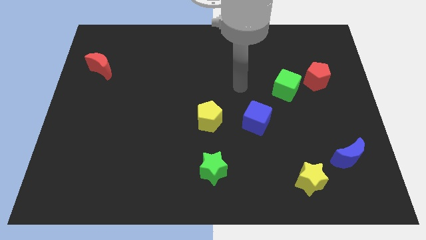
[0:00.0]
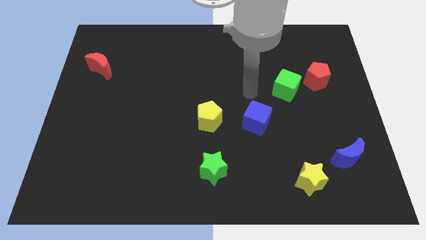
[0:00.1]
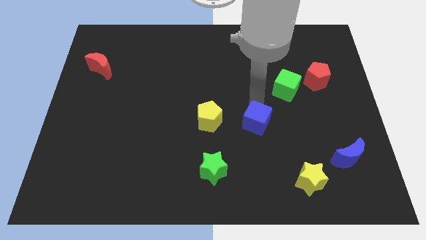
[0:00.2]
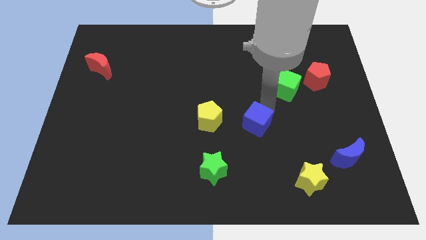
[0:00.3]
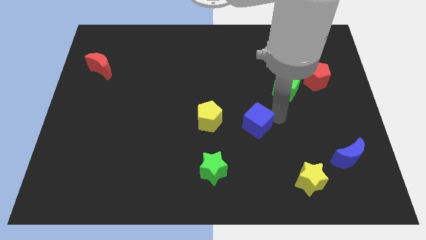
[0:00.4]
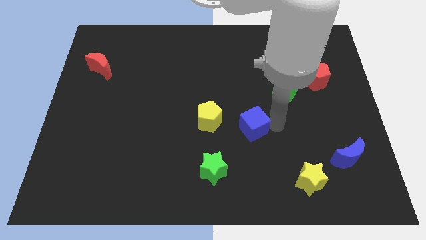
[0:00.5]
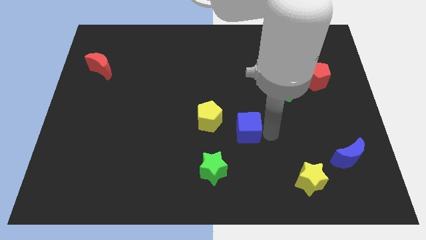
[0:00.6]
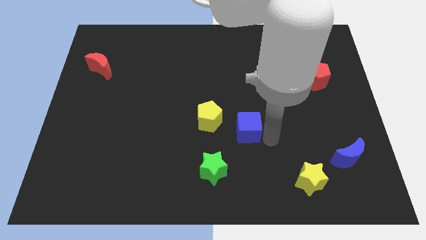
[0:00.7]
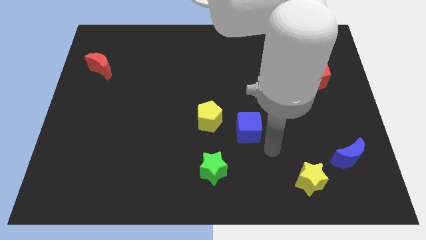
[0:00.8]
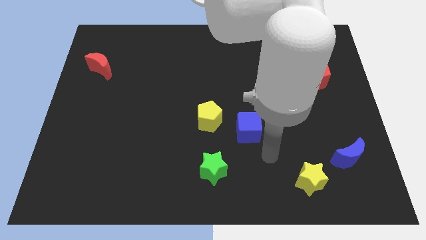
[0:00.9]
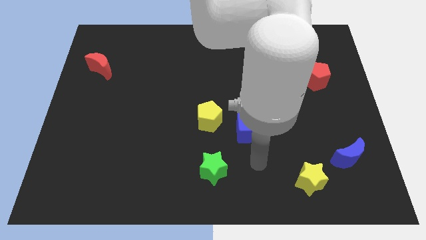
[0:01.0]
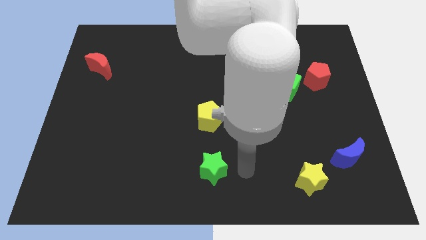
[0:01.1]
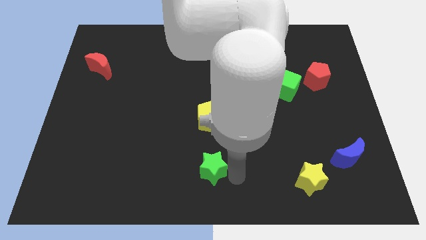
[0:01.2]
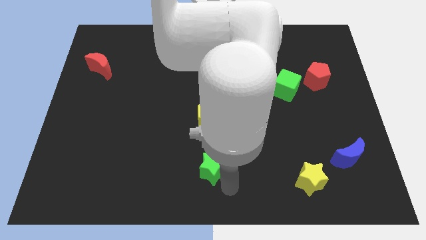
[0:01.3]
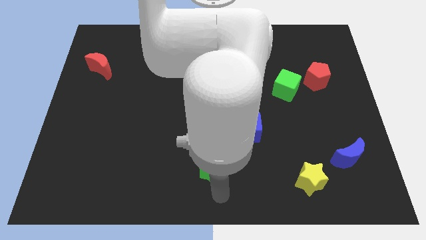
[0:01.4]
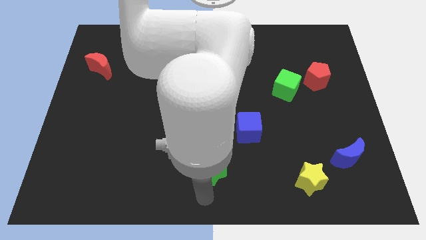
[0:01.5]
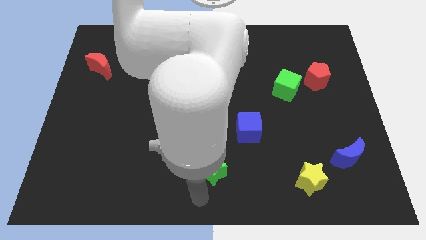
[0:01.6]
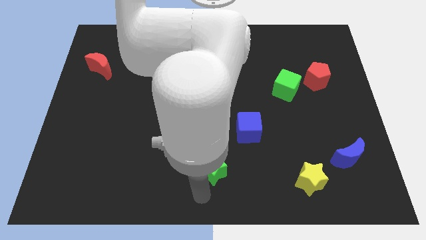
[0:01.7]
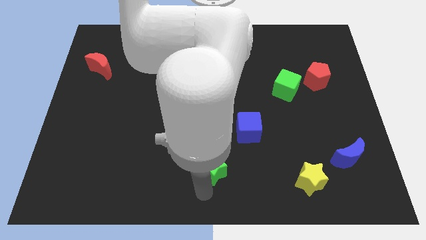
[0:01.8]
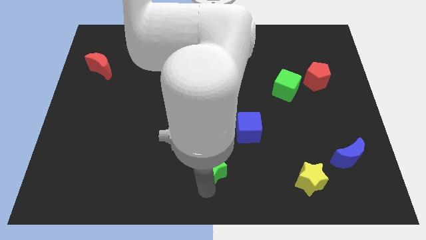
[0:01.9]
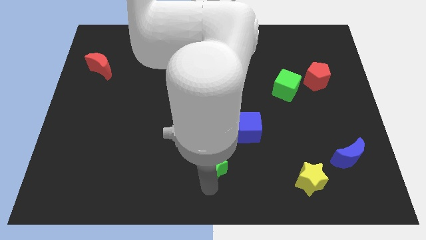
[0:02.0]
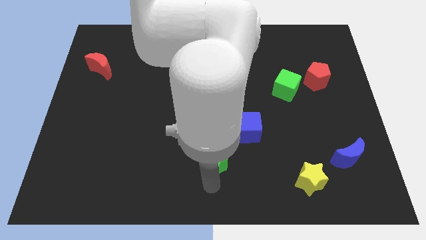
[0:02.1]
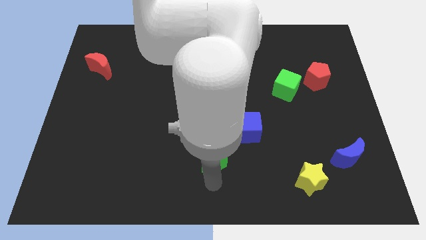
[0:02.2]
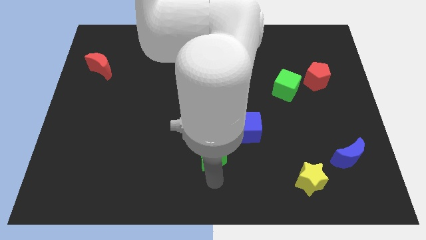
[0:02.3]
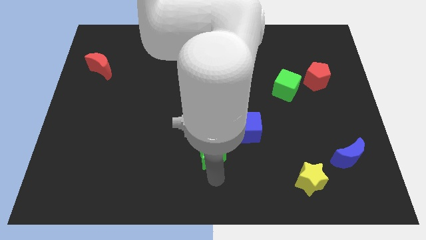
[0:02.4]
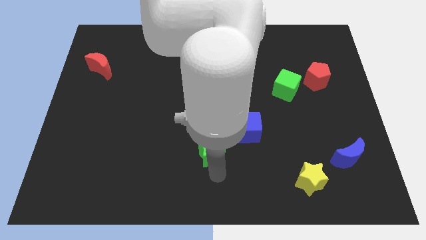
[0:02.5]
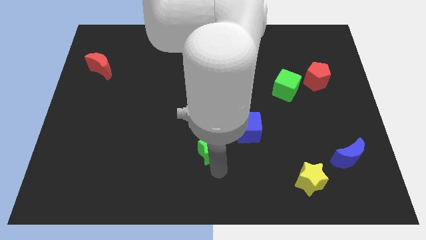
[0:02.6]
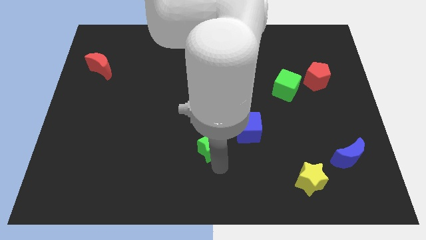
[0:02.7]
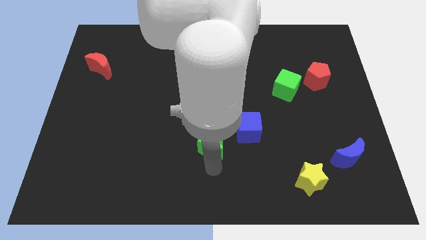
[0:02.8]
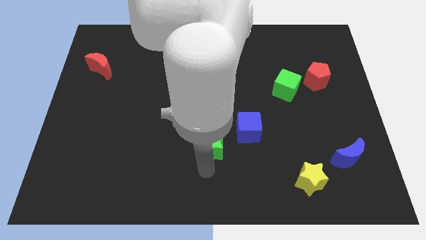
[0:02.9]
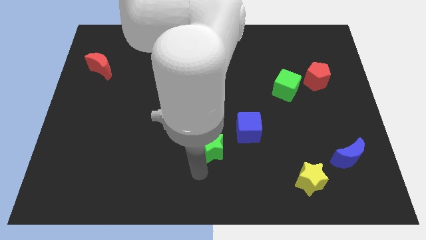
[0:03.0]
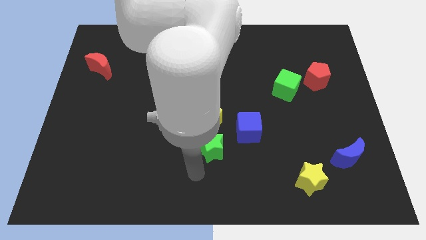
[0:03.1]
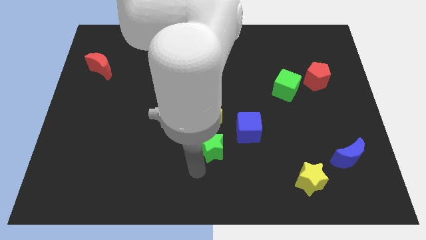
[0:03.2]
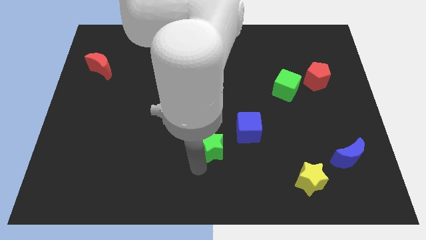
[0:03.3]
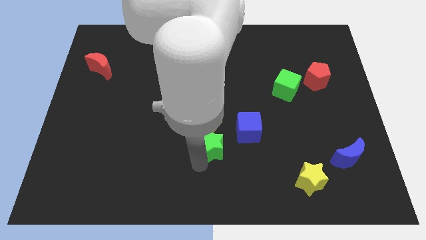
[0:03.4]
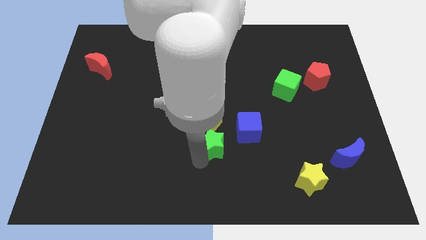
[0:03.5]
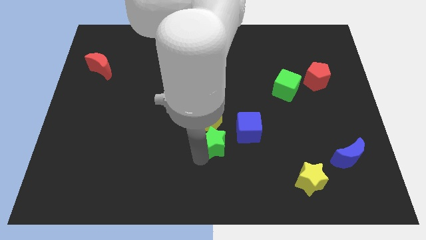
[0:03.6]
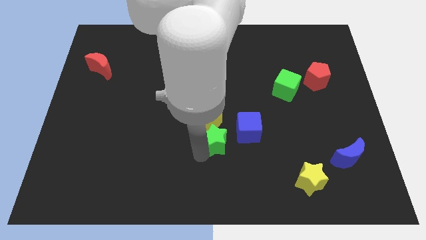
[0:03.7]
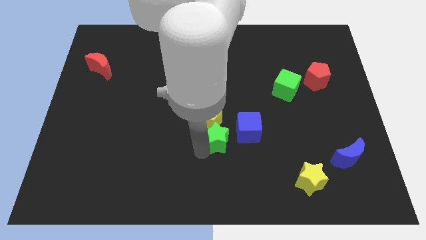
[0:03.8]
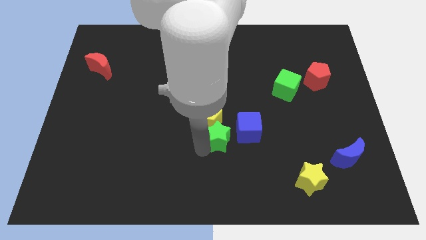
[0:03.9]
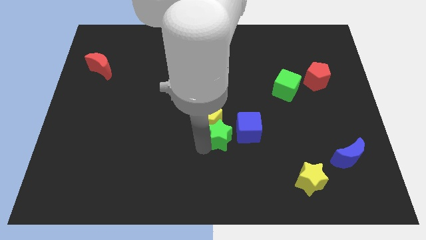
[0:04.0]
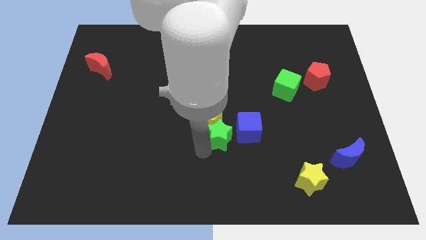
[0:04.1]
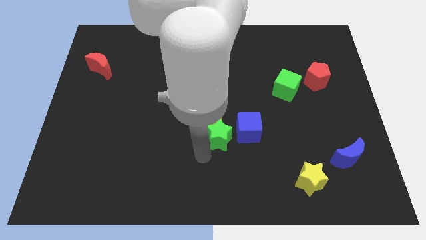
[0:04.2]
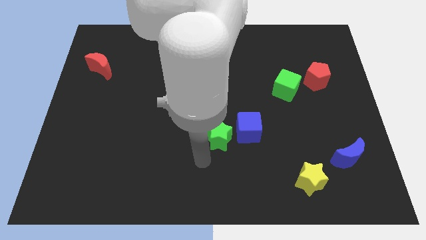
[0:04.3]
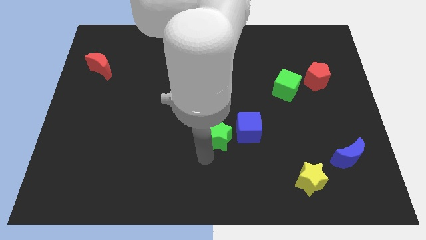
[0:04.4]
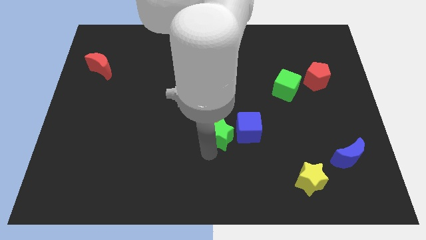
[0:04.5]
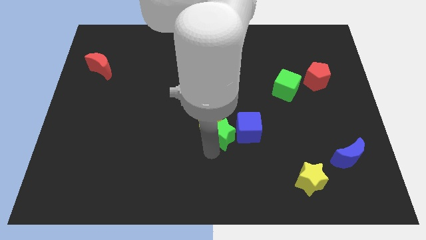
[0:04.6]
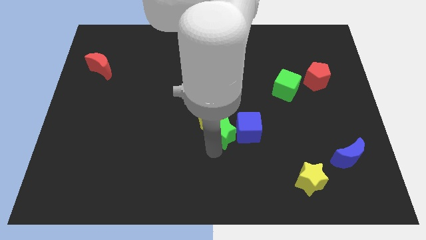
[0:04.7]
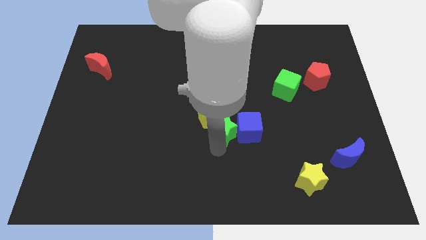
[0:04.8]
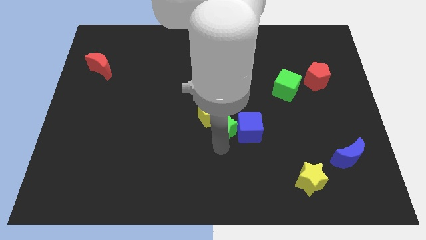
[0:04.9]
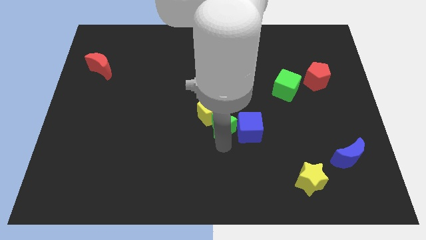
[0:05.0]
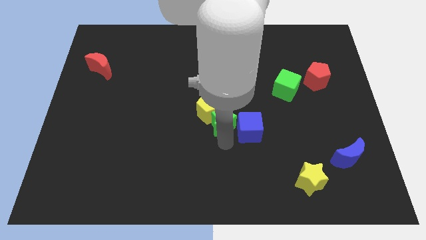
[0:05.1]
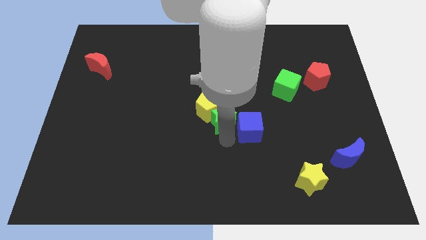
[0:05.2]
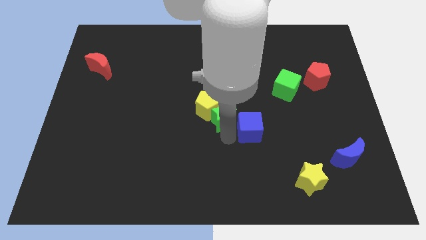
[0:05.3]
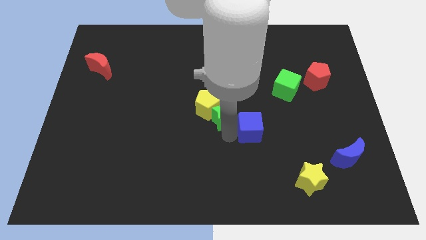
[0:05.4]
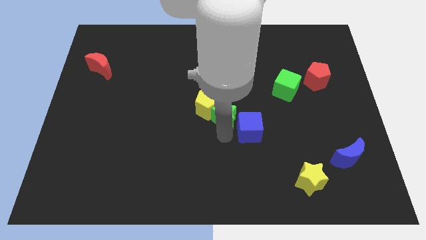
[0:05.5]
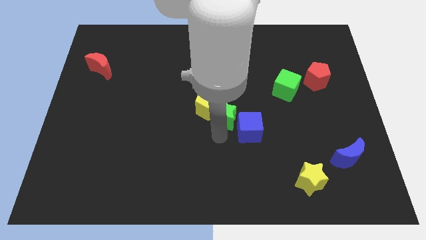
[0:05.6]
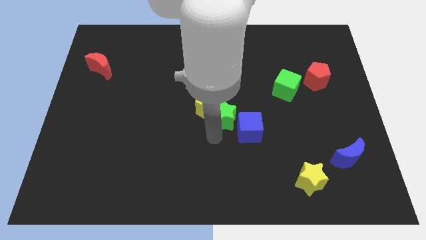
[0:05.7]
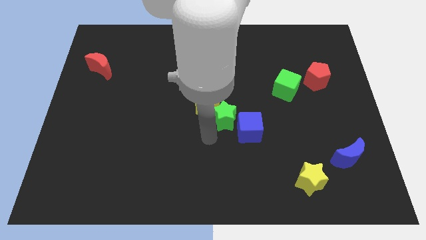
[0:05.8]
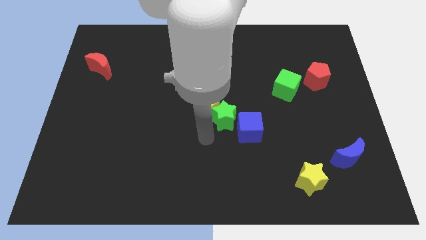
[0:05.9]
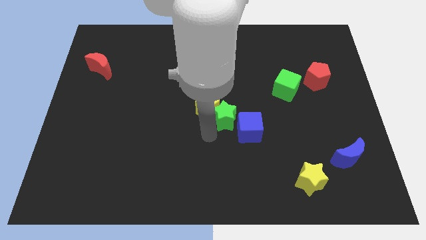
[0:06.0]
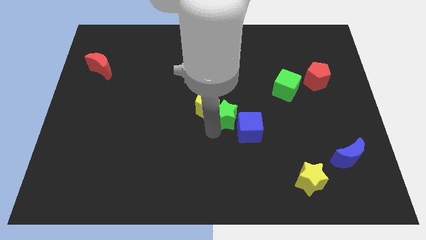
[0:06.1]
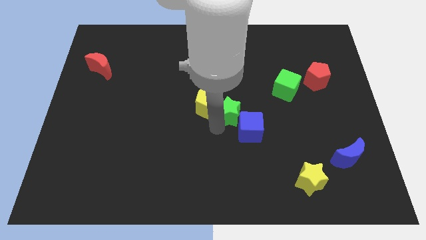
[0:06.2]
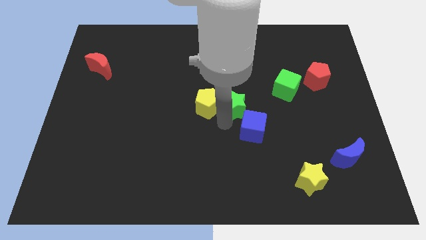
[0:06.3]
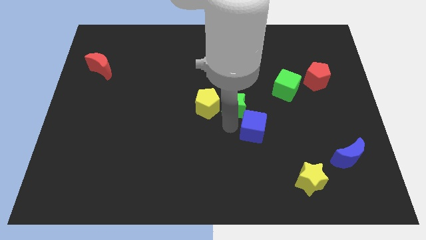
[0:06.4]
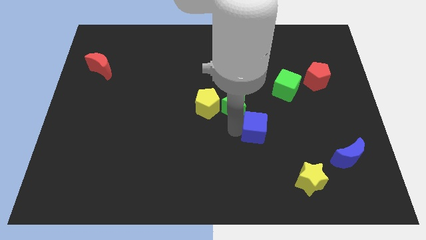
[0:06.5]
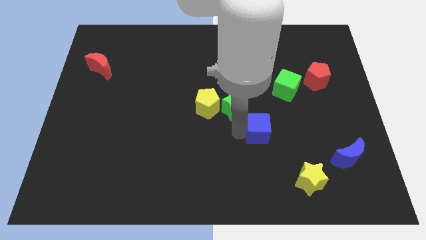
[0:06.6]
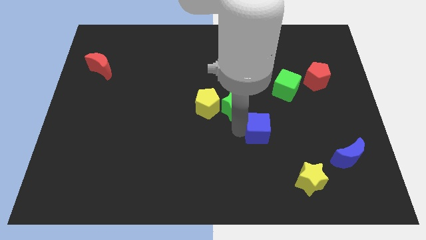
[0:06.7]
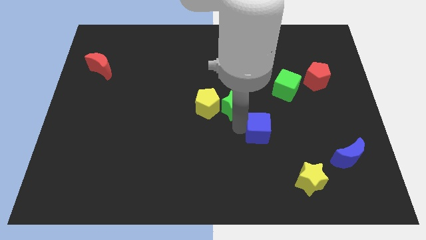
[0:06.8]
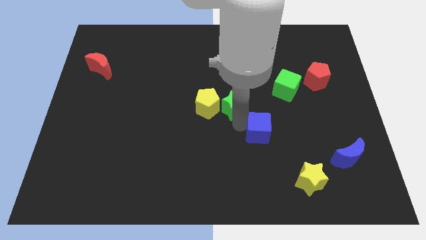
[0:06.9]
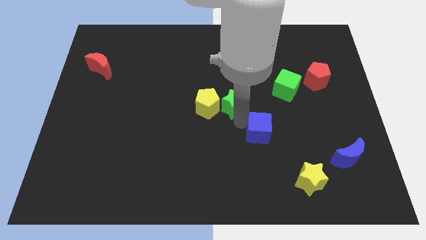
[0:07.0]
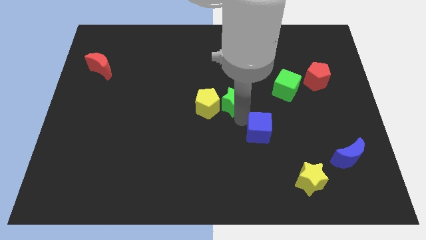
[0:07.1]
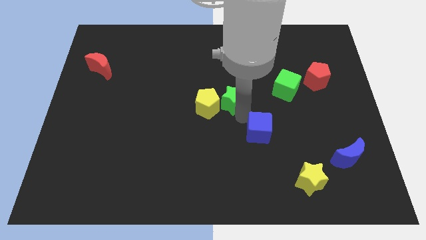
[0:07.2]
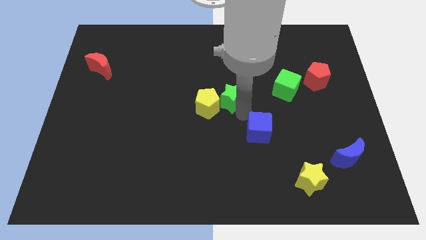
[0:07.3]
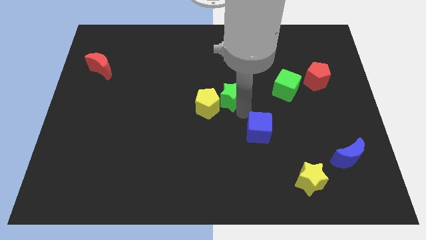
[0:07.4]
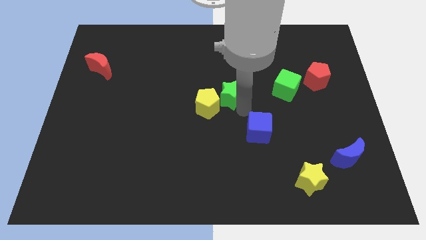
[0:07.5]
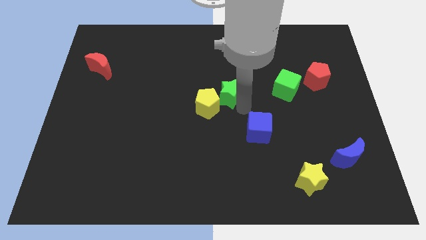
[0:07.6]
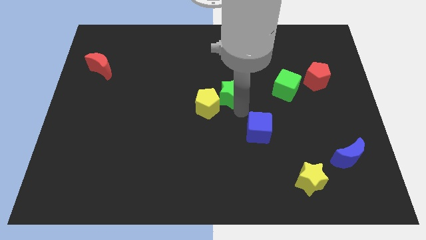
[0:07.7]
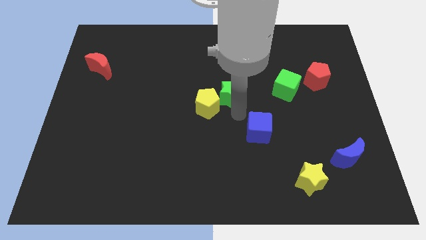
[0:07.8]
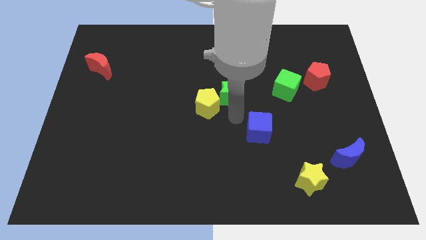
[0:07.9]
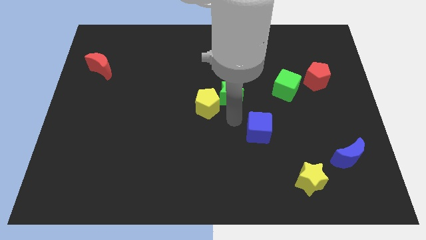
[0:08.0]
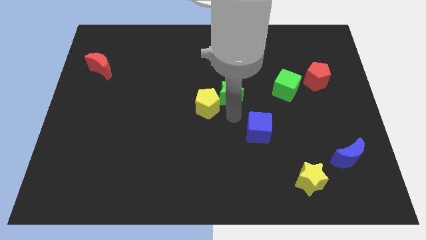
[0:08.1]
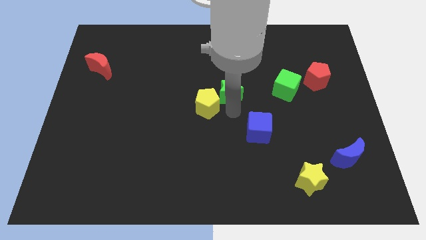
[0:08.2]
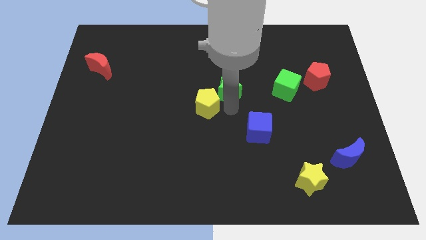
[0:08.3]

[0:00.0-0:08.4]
slide the green star up
